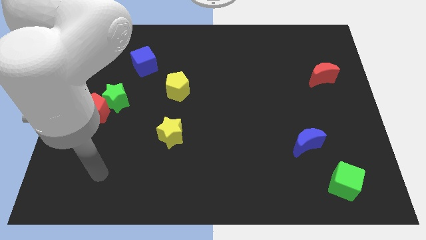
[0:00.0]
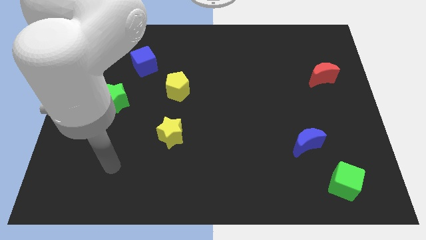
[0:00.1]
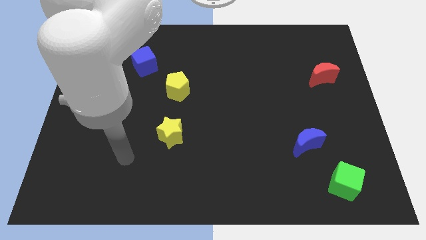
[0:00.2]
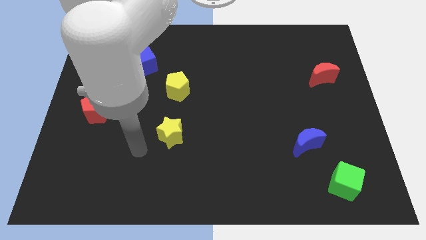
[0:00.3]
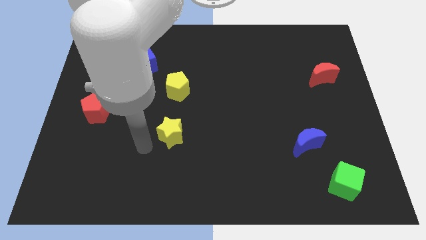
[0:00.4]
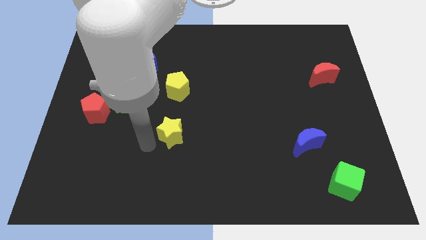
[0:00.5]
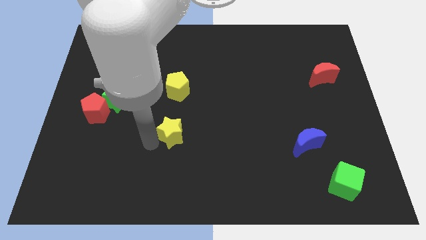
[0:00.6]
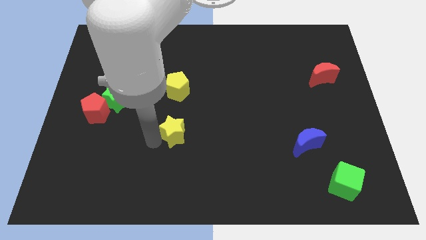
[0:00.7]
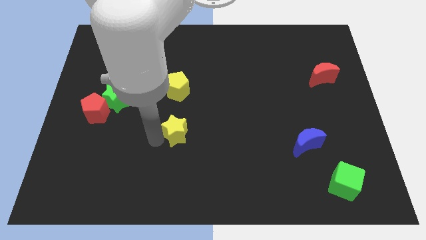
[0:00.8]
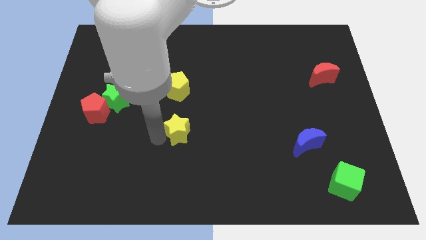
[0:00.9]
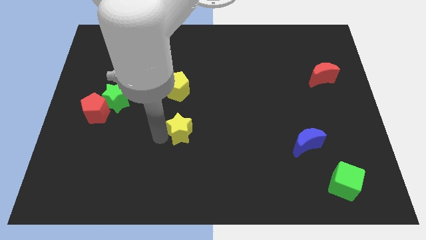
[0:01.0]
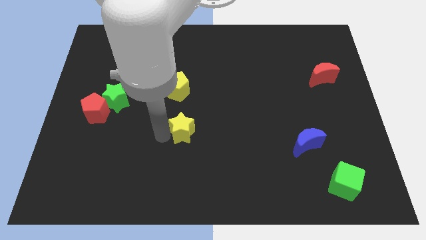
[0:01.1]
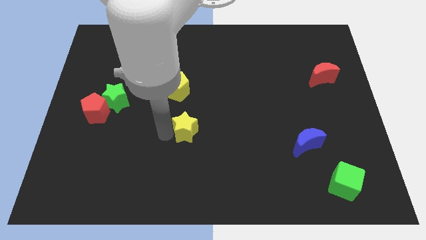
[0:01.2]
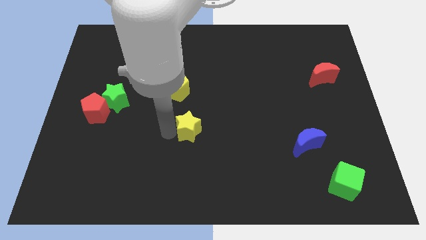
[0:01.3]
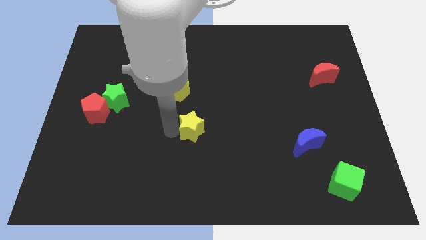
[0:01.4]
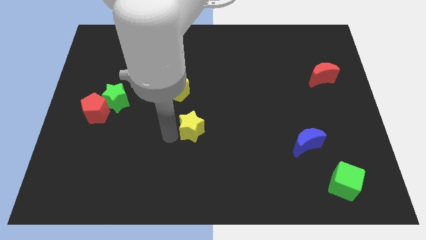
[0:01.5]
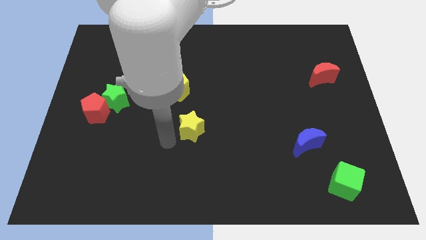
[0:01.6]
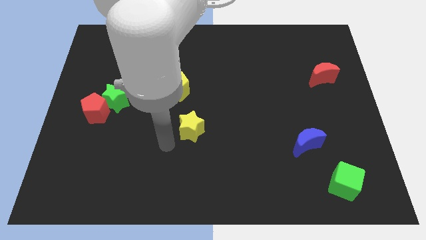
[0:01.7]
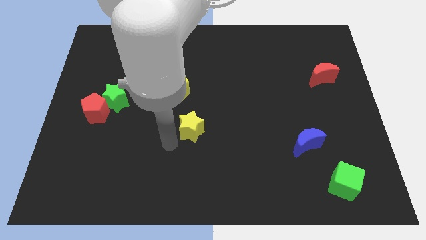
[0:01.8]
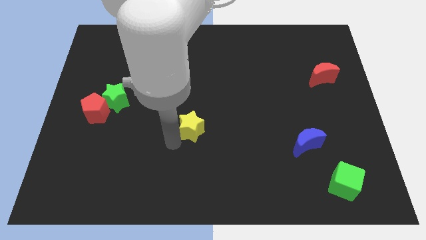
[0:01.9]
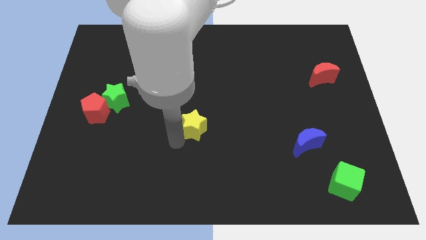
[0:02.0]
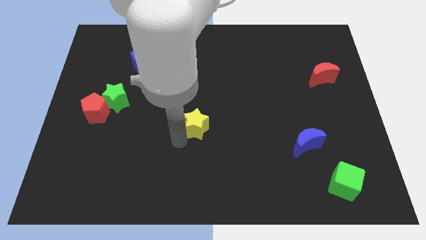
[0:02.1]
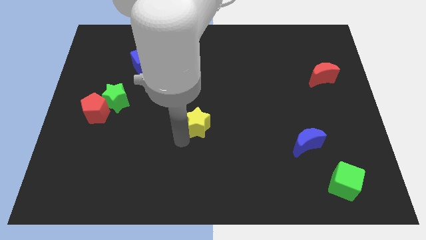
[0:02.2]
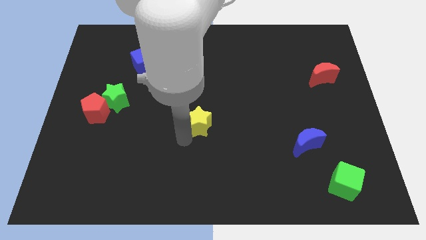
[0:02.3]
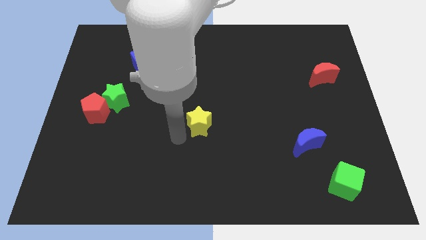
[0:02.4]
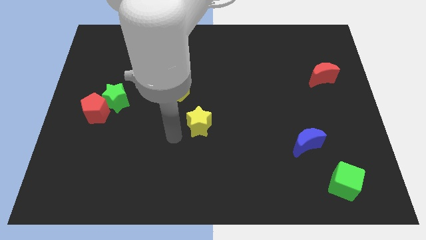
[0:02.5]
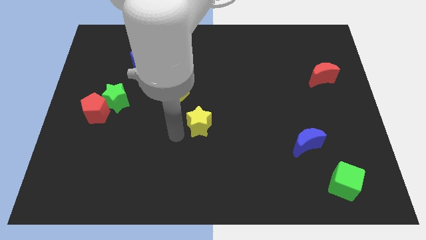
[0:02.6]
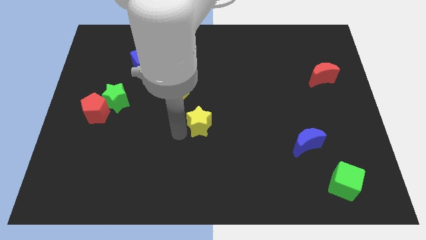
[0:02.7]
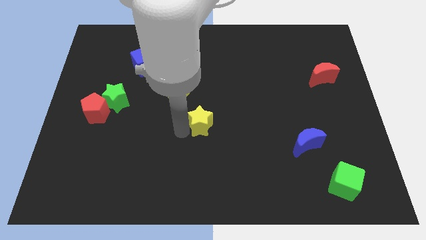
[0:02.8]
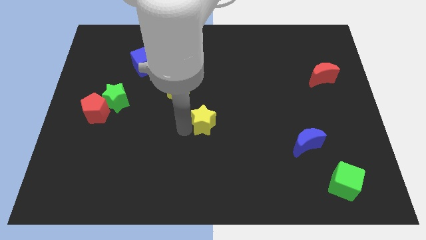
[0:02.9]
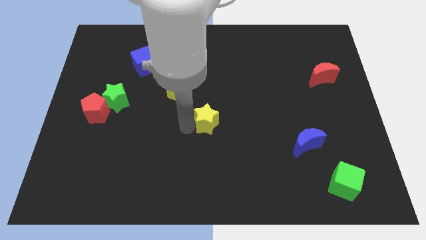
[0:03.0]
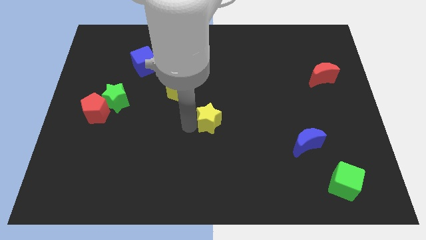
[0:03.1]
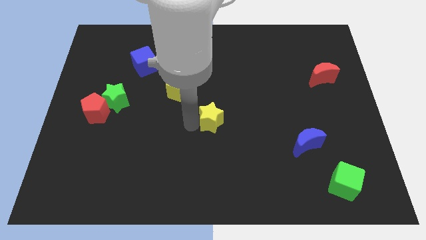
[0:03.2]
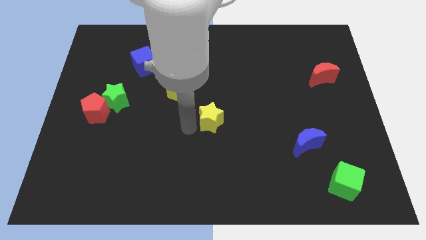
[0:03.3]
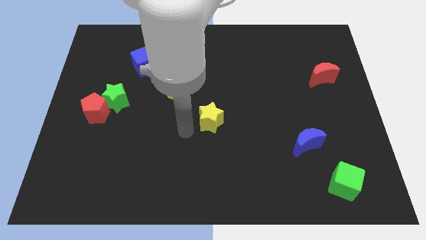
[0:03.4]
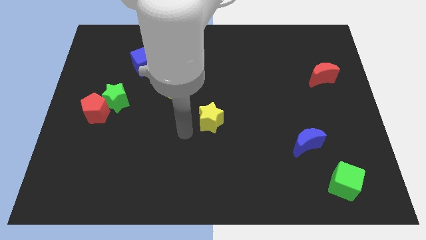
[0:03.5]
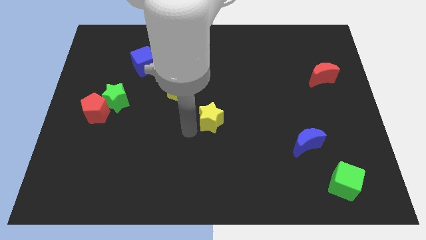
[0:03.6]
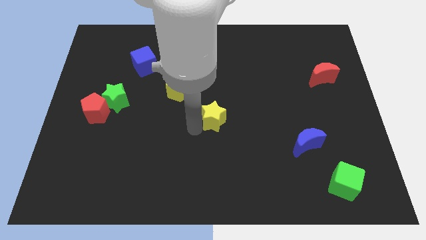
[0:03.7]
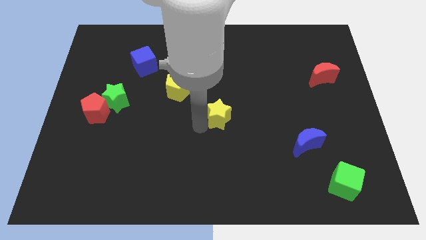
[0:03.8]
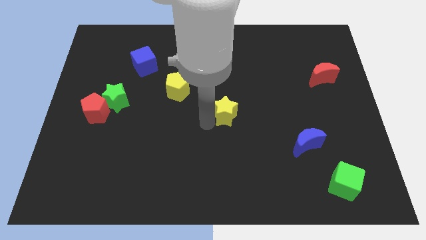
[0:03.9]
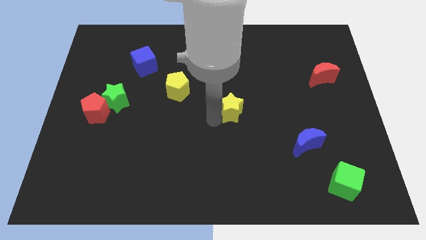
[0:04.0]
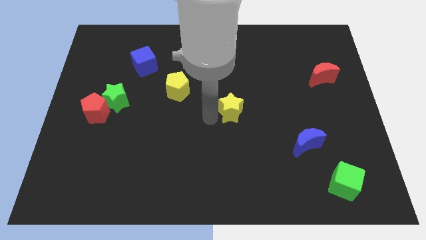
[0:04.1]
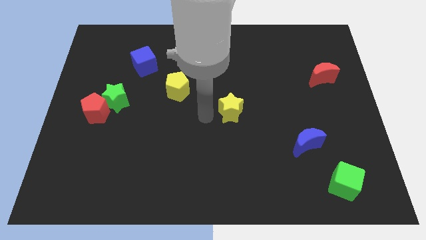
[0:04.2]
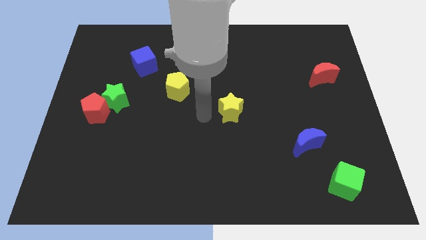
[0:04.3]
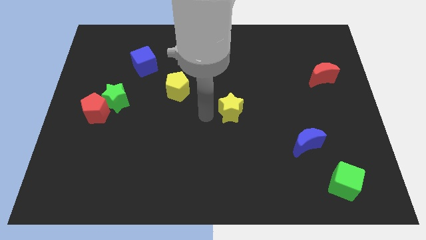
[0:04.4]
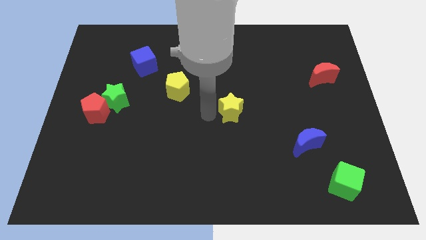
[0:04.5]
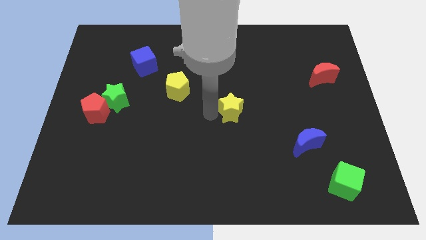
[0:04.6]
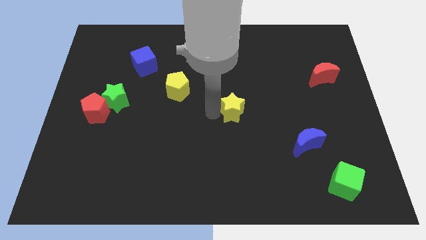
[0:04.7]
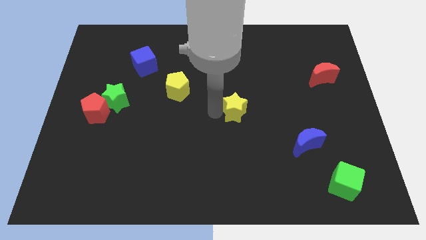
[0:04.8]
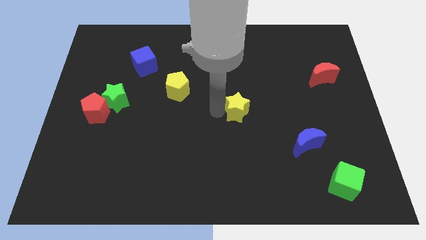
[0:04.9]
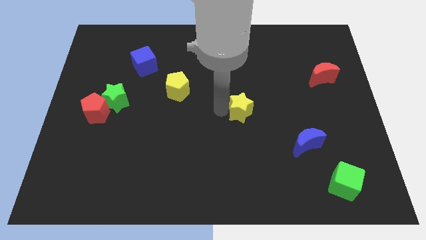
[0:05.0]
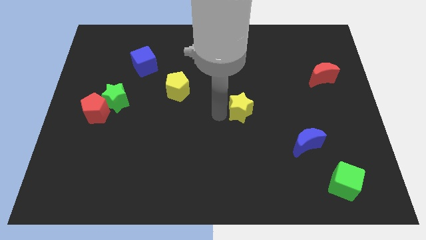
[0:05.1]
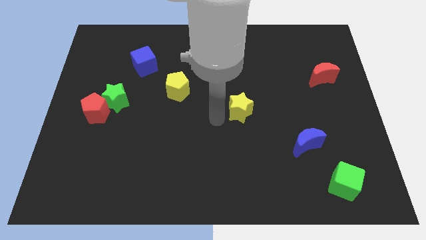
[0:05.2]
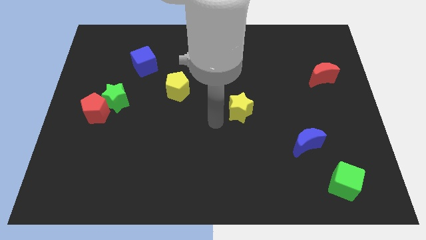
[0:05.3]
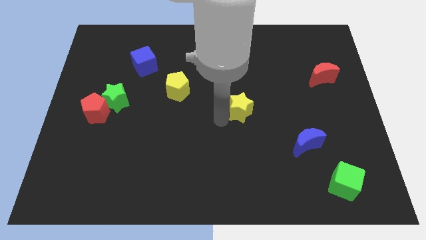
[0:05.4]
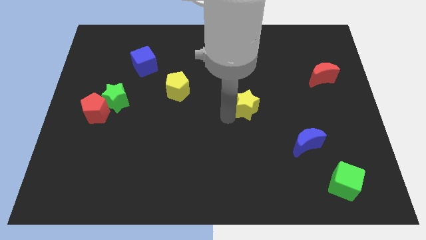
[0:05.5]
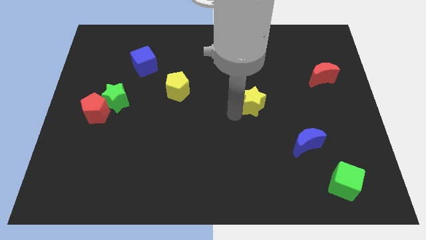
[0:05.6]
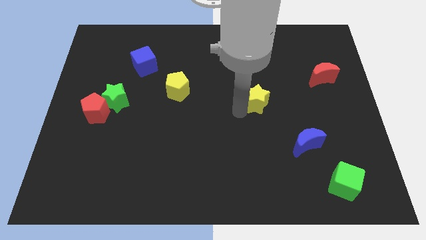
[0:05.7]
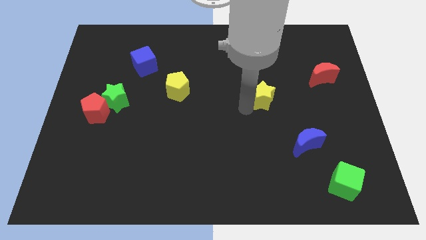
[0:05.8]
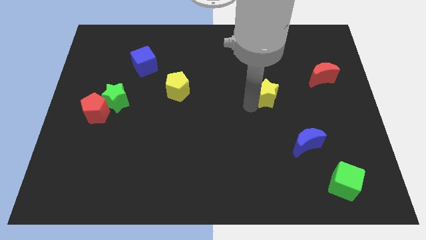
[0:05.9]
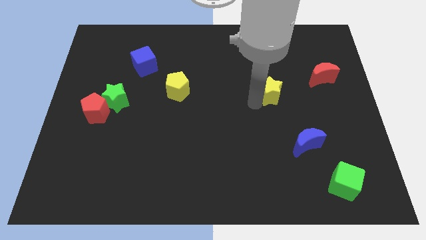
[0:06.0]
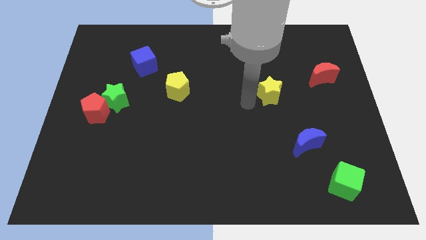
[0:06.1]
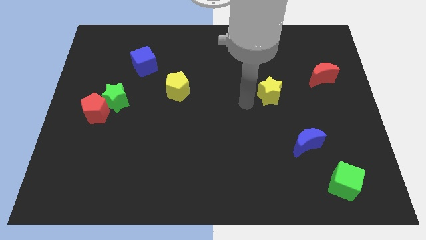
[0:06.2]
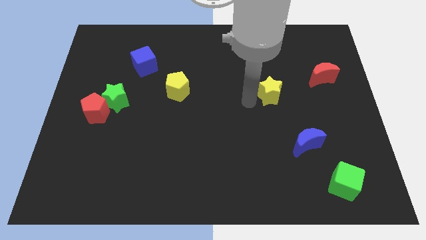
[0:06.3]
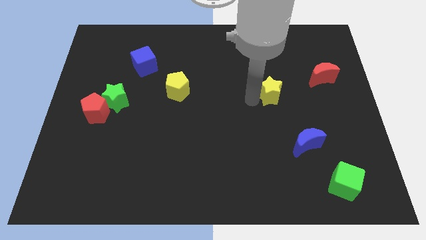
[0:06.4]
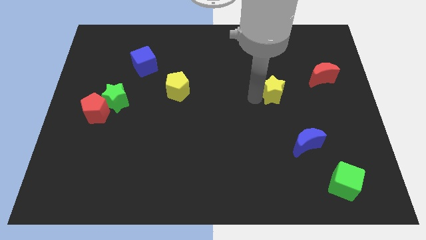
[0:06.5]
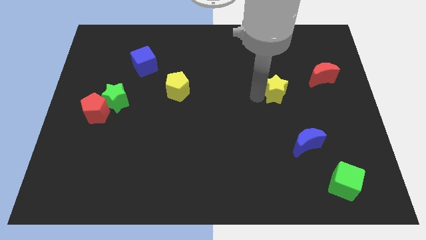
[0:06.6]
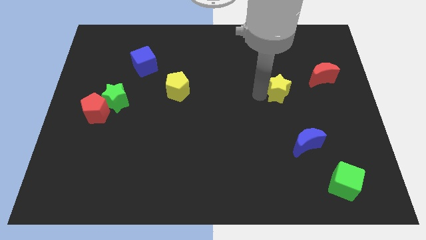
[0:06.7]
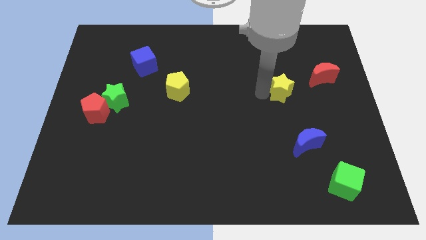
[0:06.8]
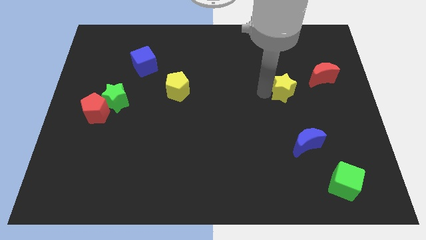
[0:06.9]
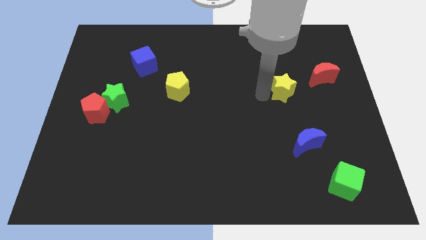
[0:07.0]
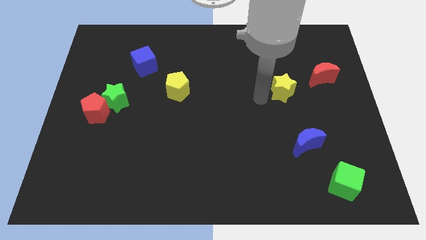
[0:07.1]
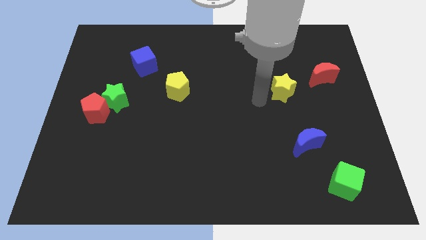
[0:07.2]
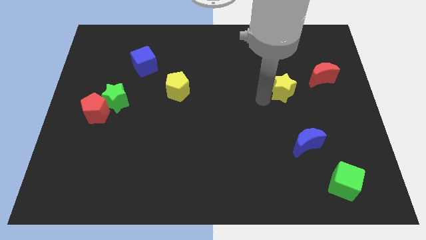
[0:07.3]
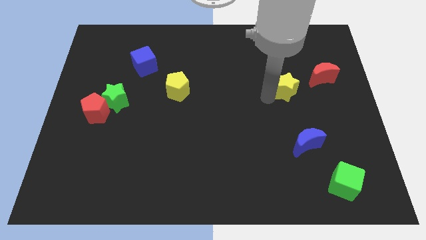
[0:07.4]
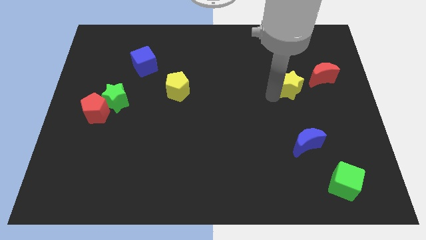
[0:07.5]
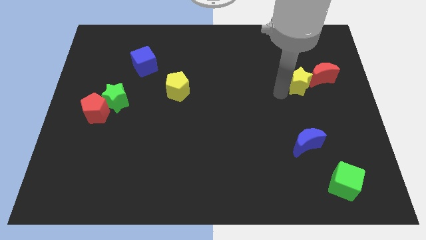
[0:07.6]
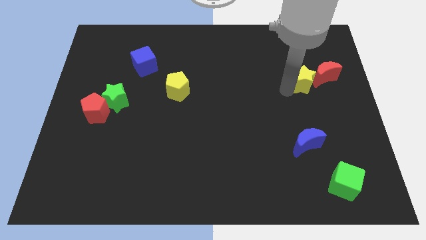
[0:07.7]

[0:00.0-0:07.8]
slide the yellow star towards the red moon
